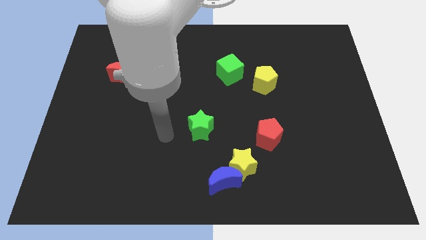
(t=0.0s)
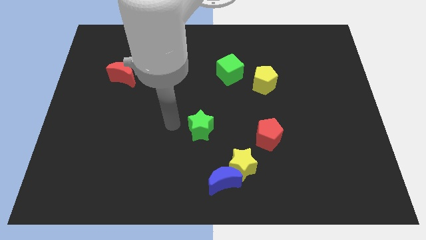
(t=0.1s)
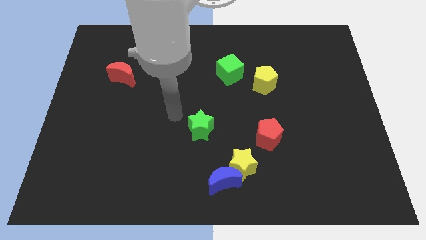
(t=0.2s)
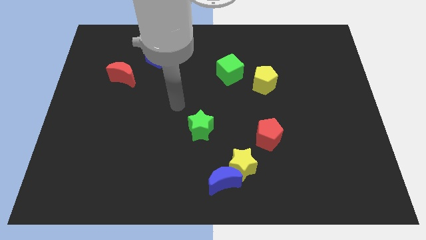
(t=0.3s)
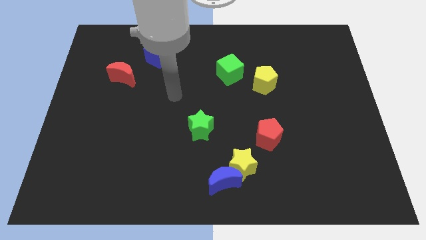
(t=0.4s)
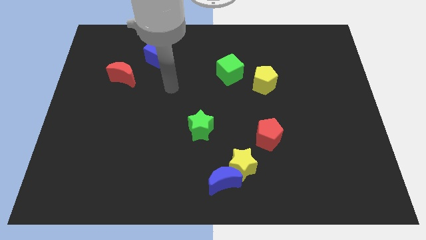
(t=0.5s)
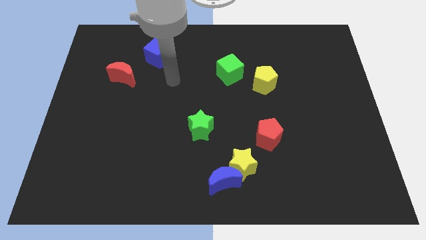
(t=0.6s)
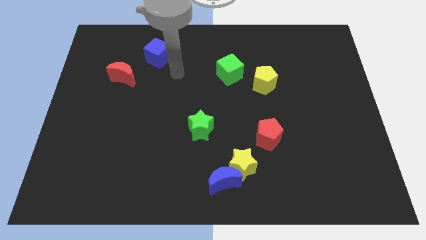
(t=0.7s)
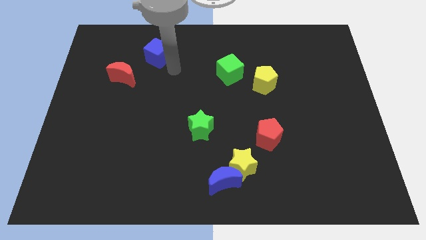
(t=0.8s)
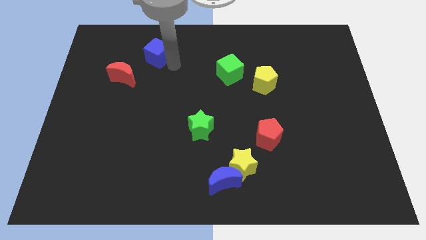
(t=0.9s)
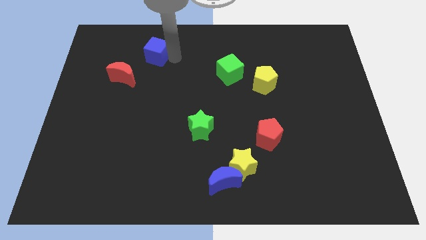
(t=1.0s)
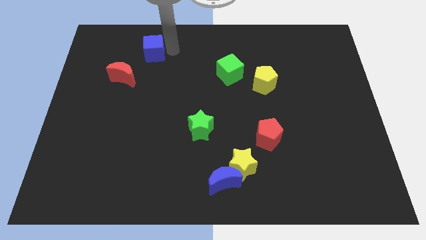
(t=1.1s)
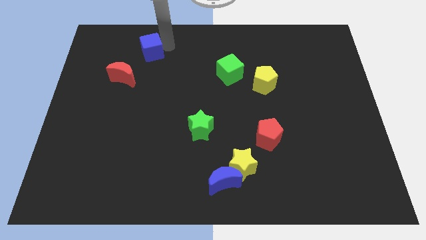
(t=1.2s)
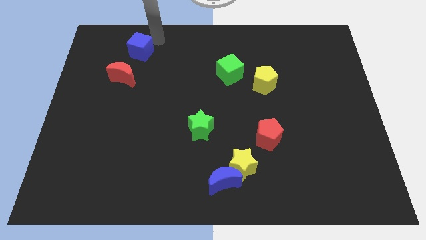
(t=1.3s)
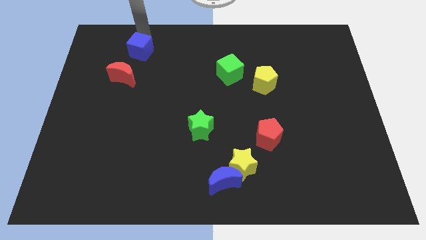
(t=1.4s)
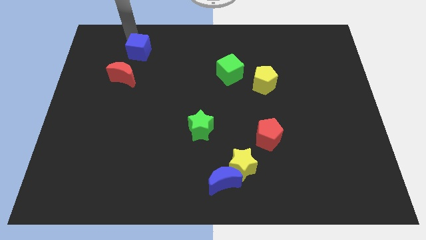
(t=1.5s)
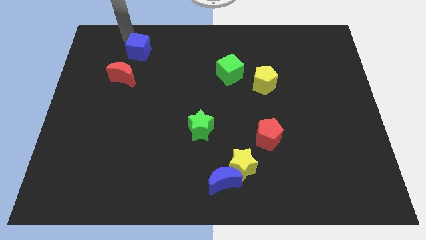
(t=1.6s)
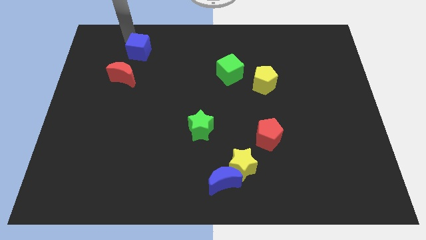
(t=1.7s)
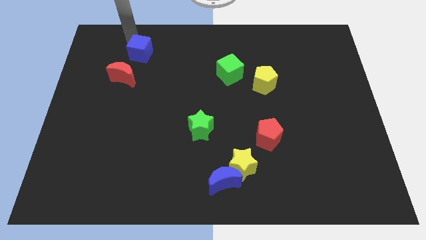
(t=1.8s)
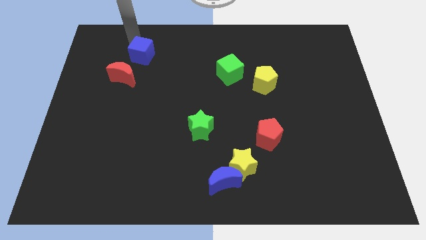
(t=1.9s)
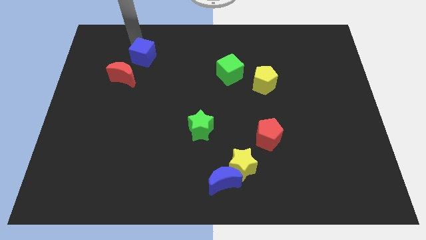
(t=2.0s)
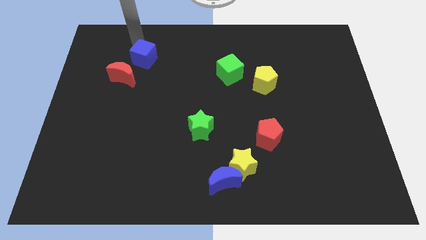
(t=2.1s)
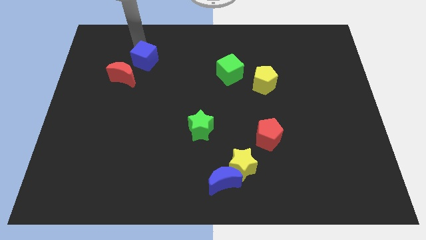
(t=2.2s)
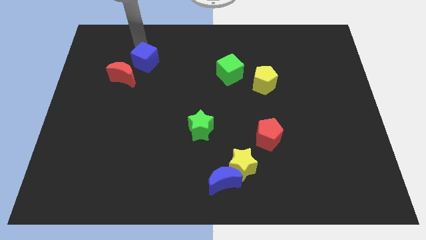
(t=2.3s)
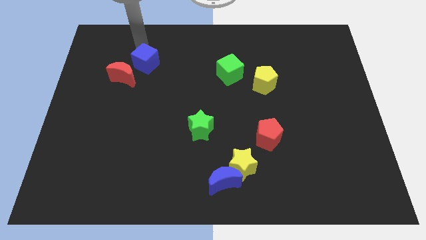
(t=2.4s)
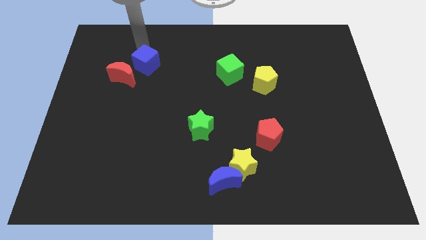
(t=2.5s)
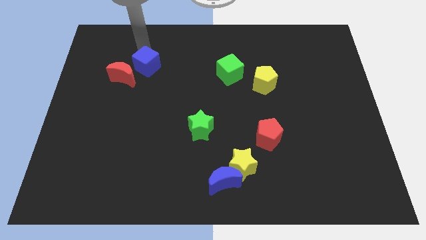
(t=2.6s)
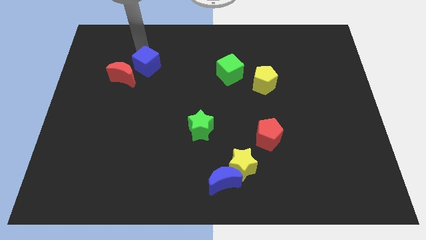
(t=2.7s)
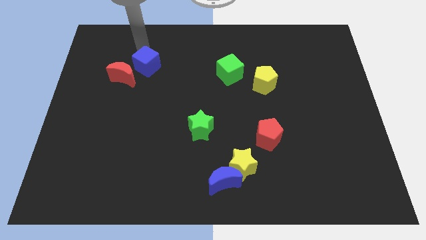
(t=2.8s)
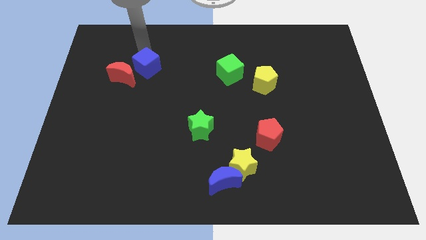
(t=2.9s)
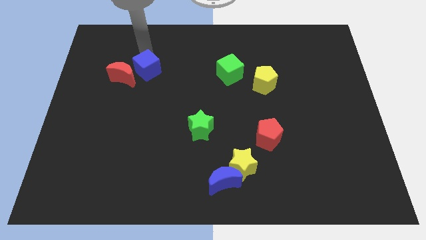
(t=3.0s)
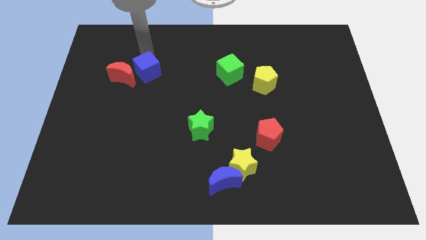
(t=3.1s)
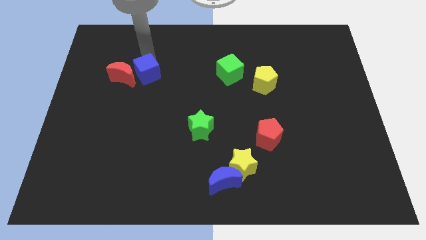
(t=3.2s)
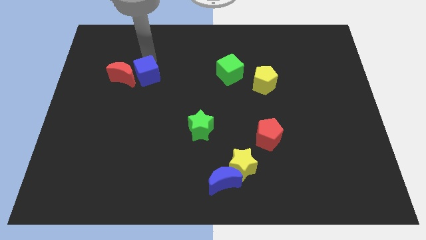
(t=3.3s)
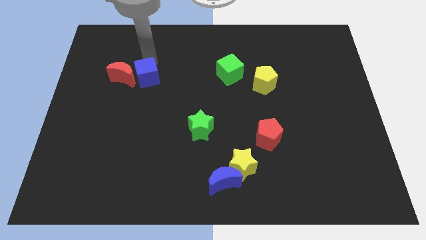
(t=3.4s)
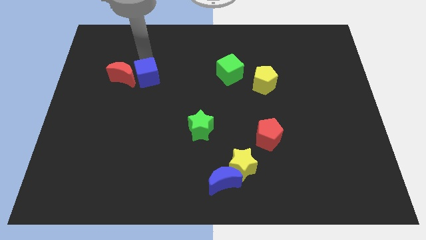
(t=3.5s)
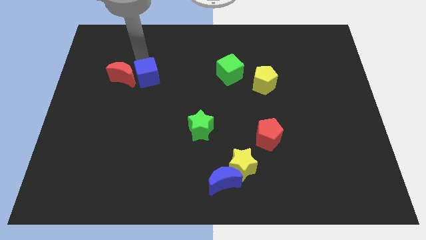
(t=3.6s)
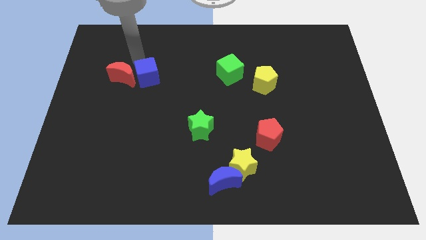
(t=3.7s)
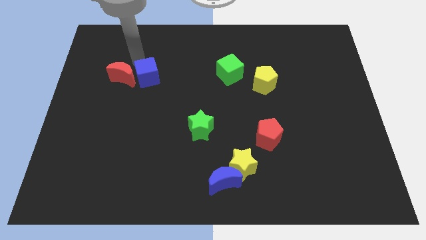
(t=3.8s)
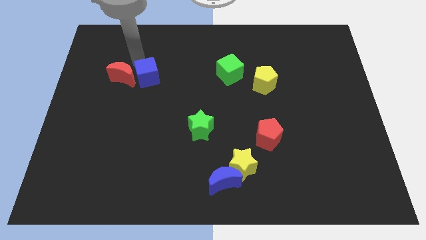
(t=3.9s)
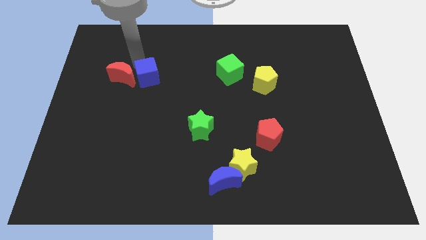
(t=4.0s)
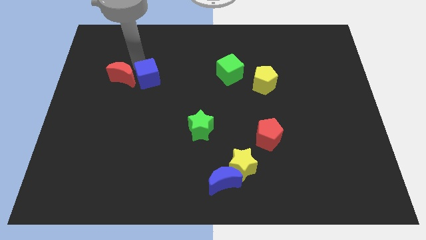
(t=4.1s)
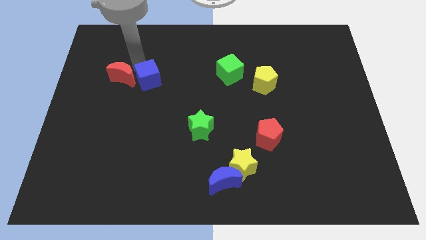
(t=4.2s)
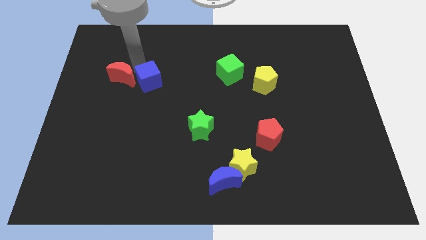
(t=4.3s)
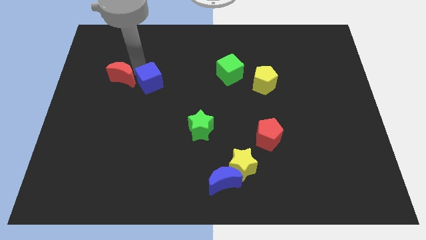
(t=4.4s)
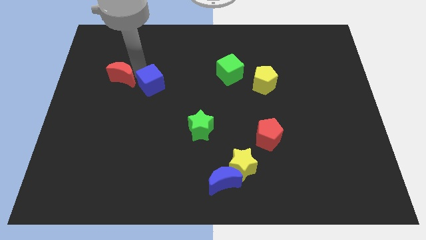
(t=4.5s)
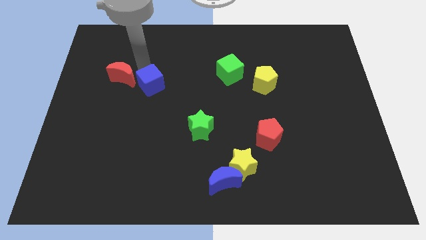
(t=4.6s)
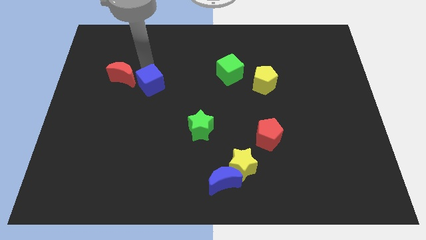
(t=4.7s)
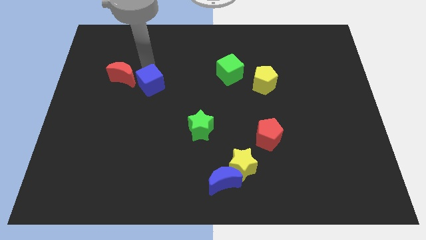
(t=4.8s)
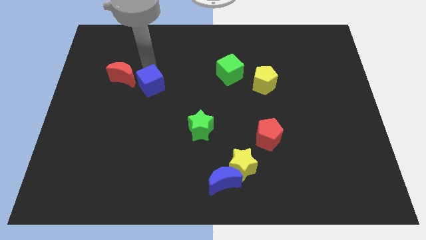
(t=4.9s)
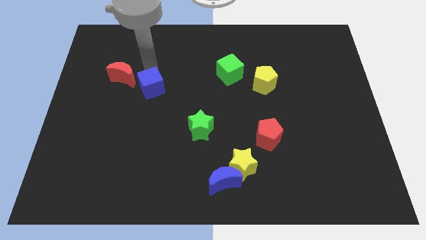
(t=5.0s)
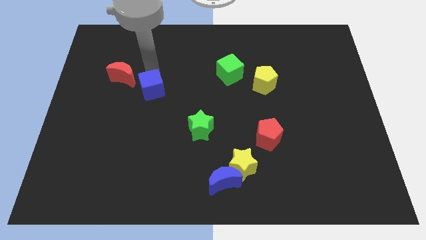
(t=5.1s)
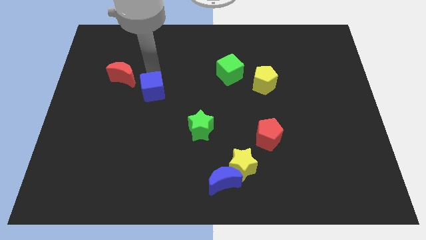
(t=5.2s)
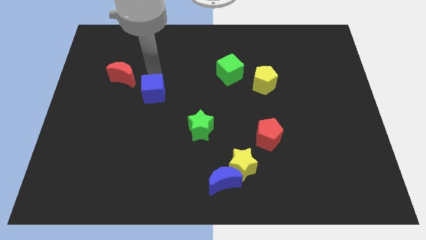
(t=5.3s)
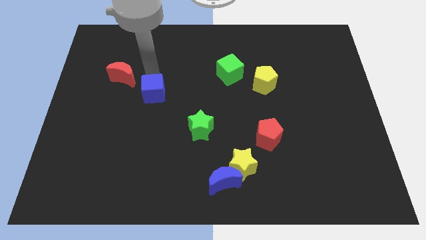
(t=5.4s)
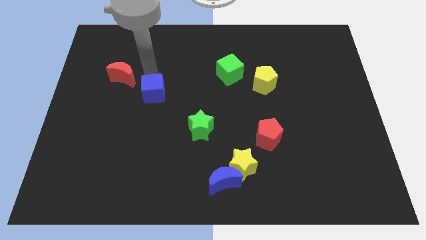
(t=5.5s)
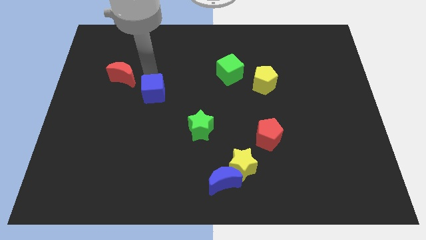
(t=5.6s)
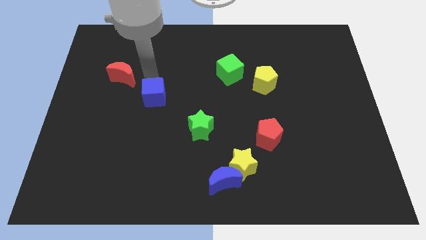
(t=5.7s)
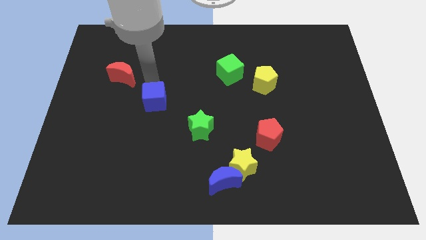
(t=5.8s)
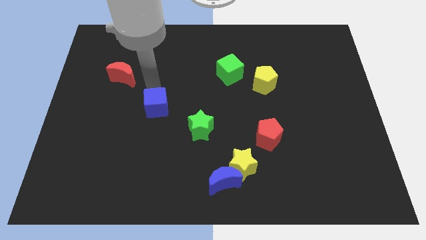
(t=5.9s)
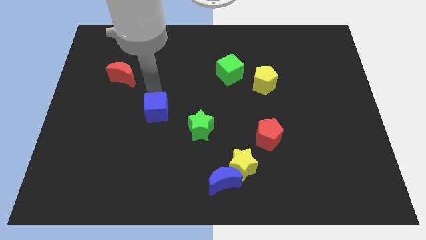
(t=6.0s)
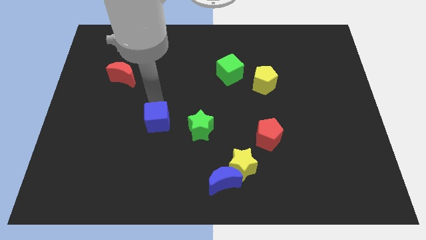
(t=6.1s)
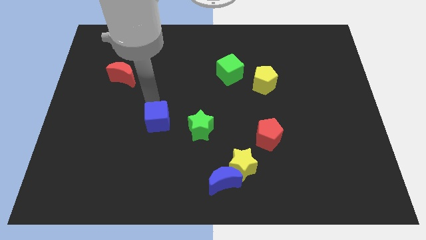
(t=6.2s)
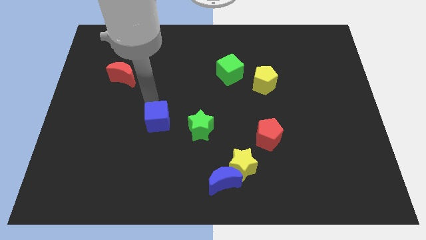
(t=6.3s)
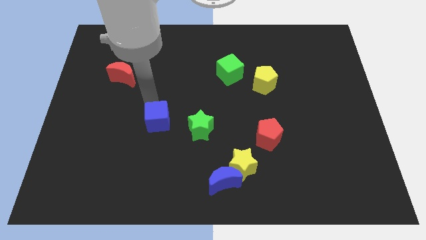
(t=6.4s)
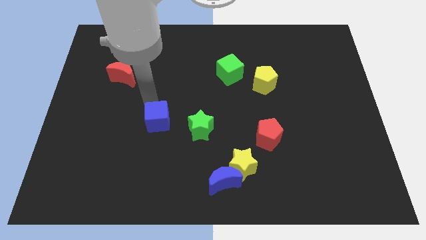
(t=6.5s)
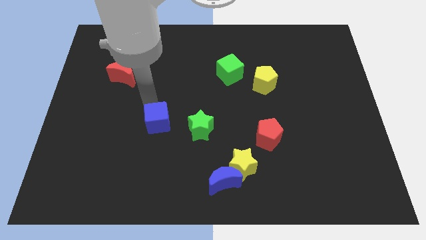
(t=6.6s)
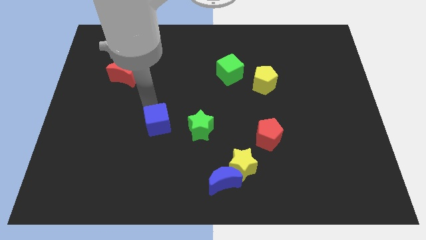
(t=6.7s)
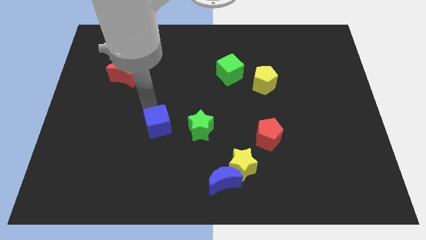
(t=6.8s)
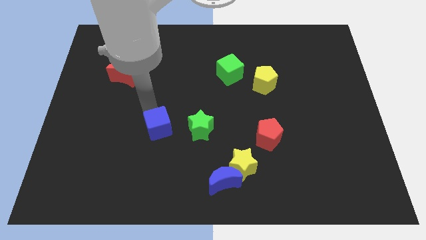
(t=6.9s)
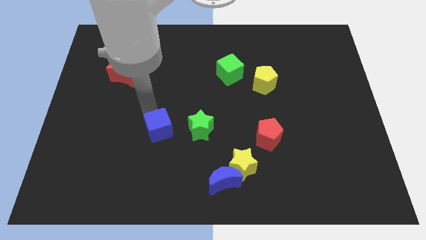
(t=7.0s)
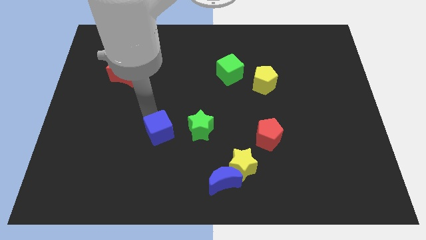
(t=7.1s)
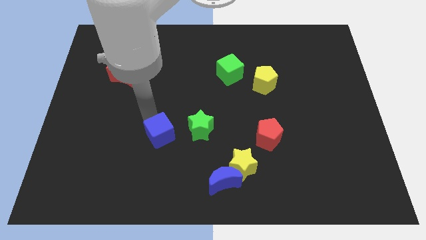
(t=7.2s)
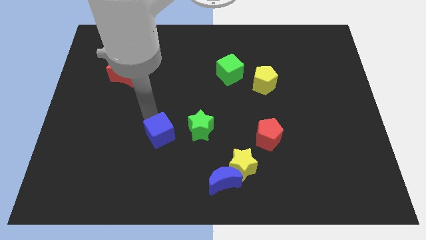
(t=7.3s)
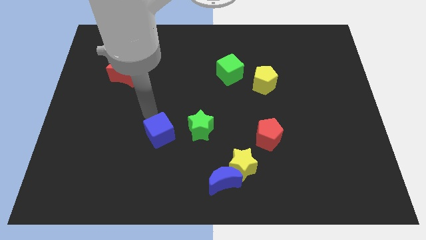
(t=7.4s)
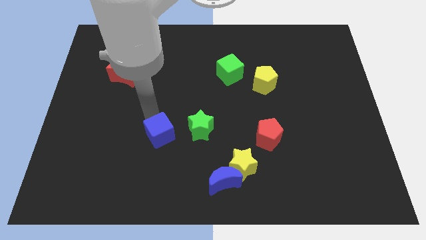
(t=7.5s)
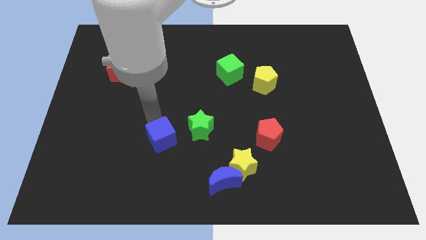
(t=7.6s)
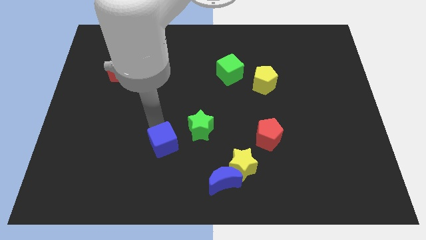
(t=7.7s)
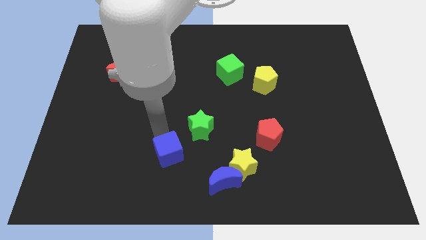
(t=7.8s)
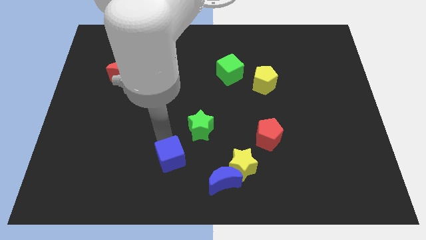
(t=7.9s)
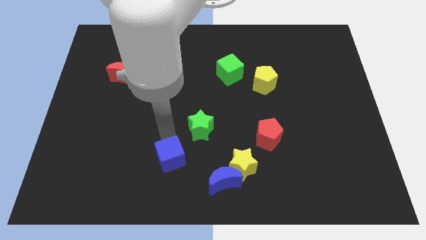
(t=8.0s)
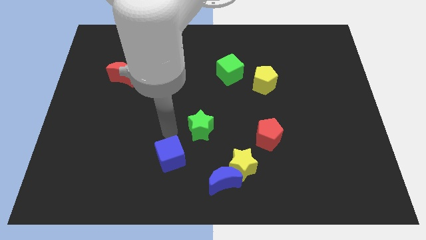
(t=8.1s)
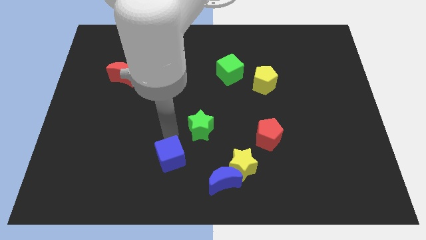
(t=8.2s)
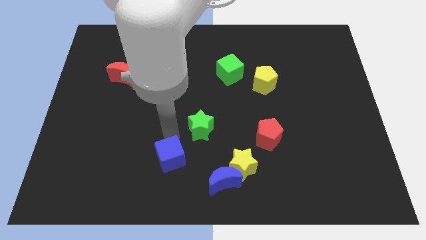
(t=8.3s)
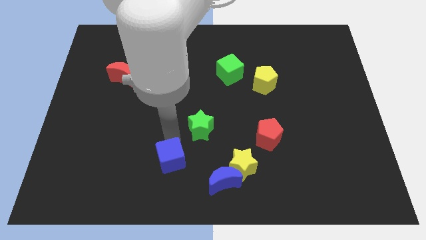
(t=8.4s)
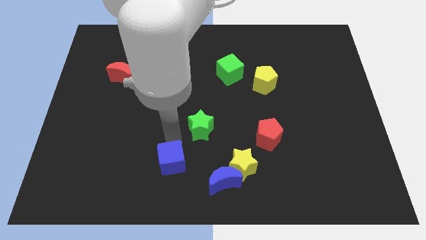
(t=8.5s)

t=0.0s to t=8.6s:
slide the blue cube to the left of the blue moon
